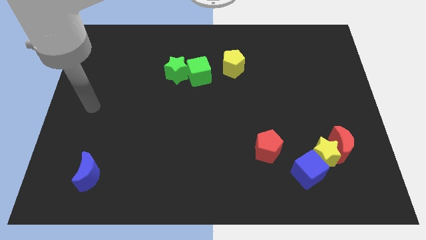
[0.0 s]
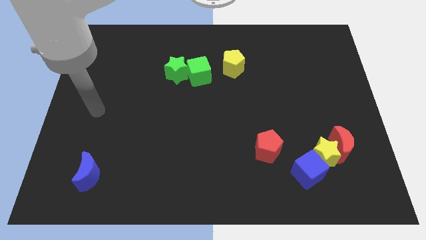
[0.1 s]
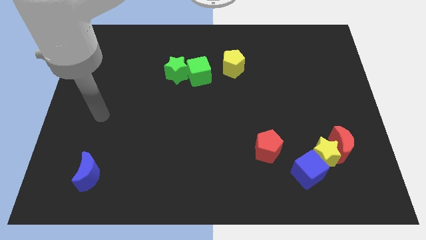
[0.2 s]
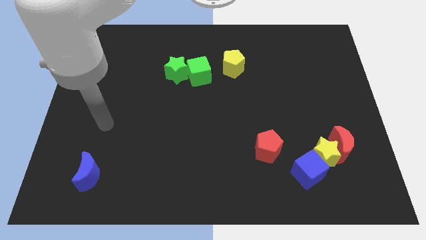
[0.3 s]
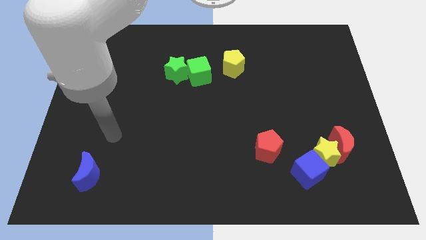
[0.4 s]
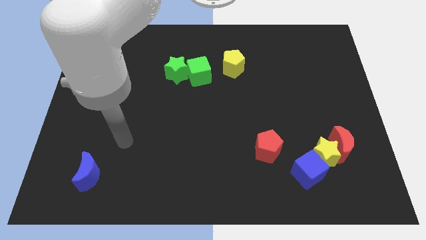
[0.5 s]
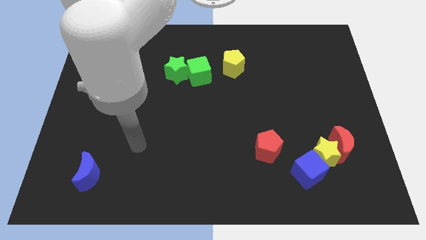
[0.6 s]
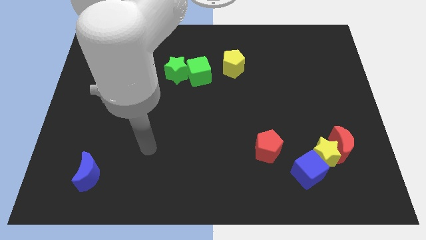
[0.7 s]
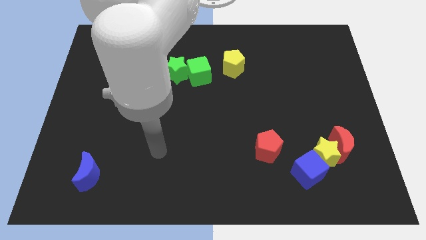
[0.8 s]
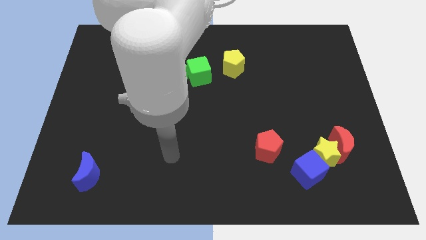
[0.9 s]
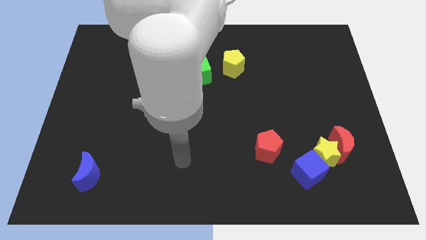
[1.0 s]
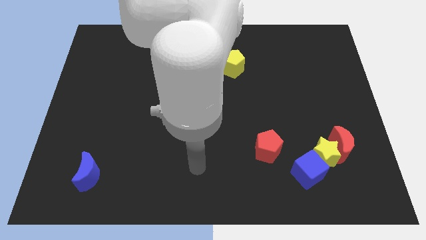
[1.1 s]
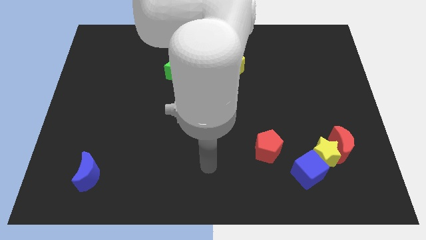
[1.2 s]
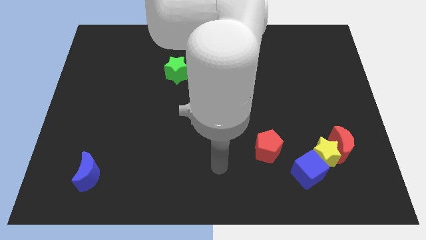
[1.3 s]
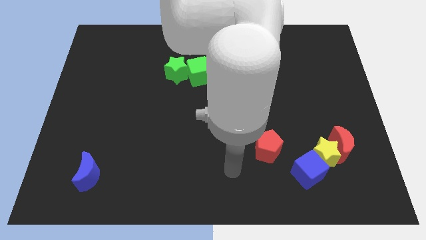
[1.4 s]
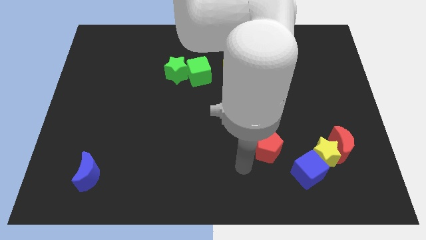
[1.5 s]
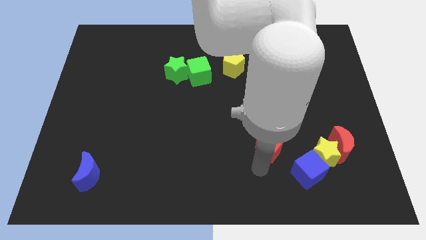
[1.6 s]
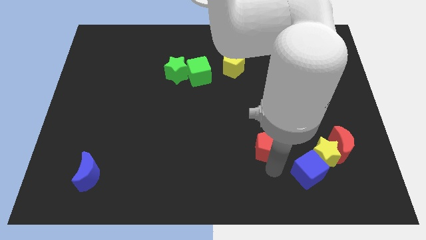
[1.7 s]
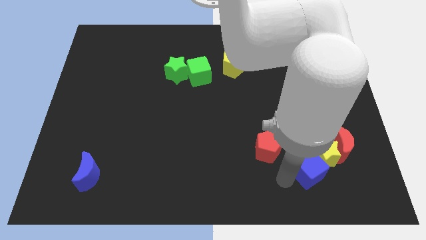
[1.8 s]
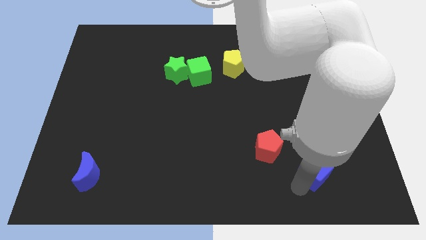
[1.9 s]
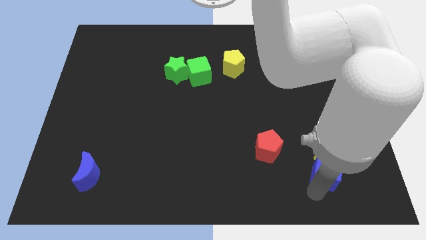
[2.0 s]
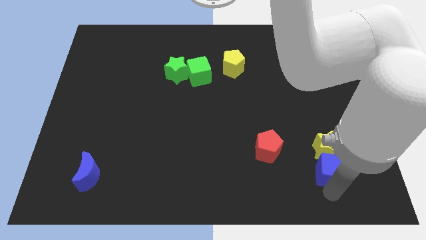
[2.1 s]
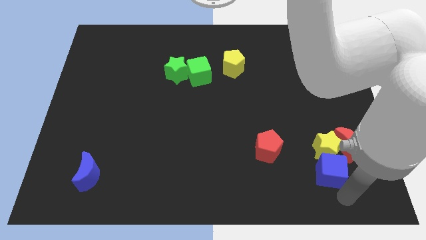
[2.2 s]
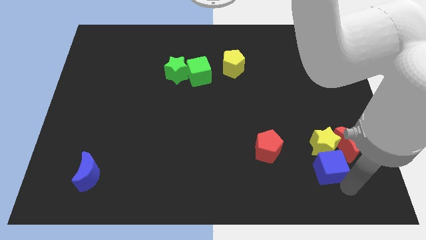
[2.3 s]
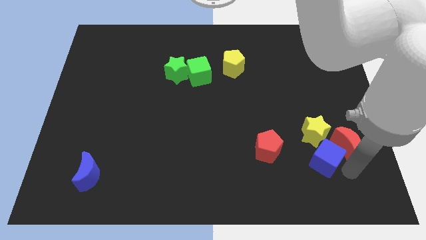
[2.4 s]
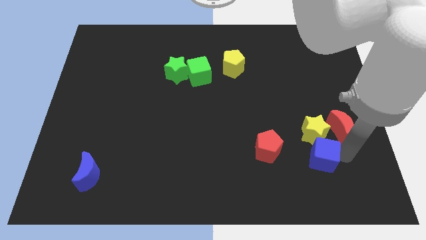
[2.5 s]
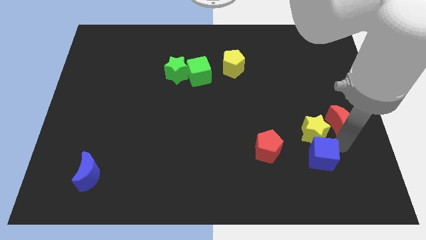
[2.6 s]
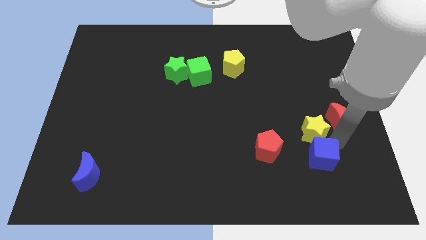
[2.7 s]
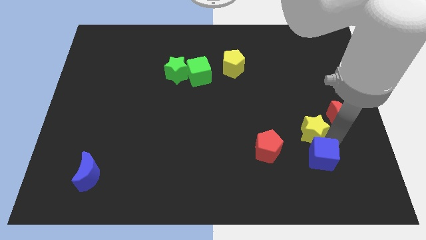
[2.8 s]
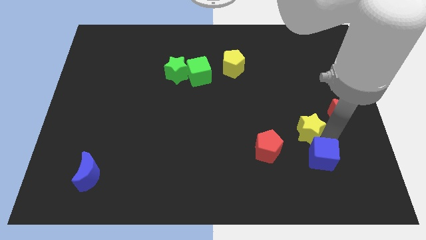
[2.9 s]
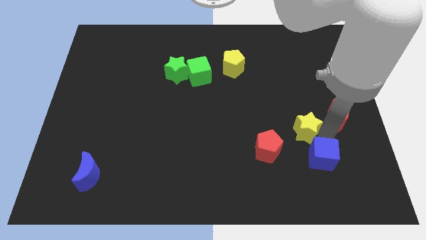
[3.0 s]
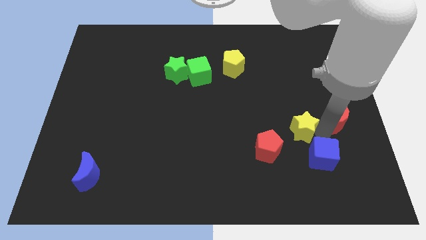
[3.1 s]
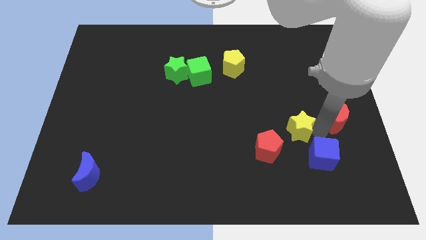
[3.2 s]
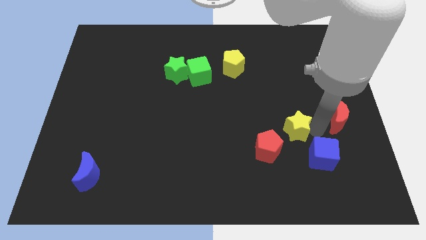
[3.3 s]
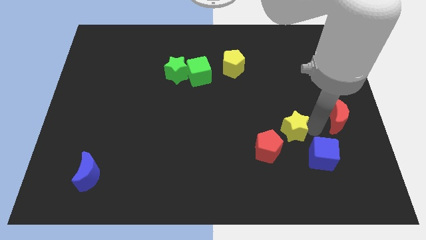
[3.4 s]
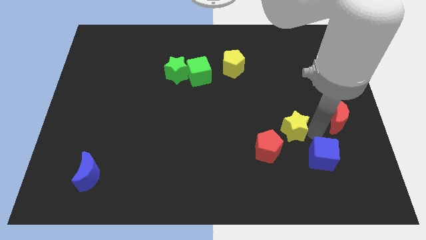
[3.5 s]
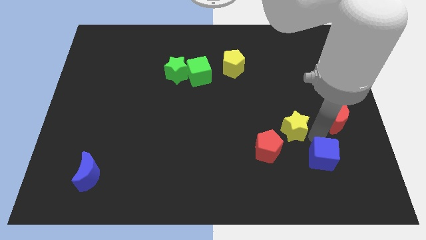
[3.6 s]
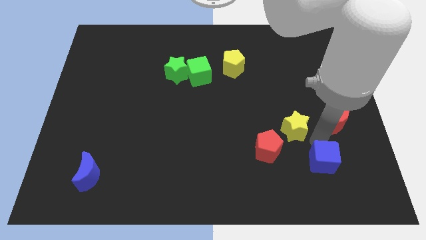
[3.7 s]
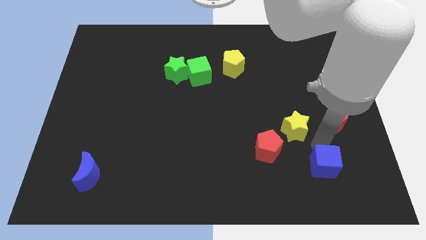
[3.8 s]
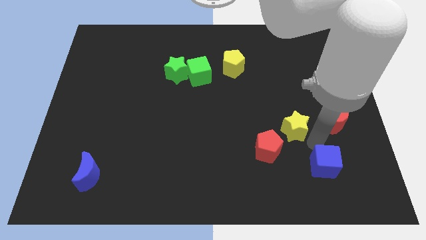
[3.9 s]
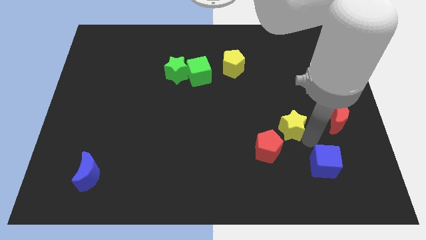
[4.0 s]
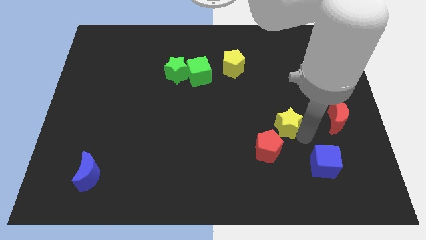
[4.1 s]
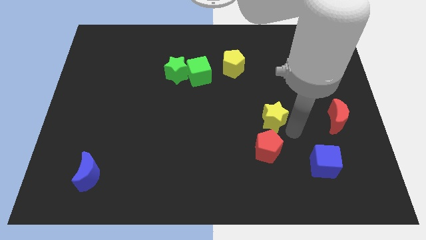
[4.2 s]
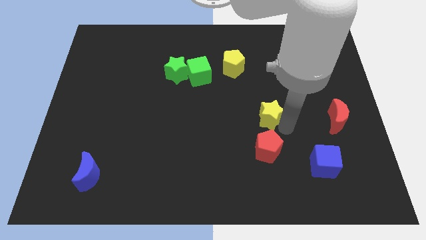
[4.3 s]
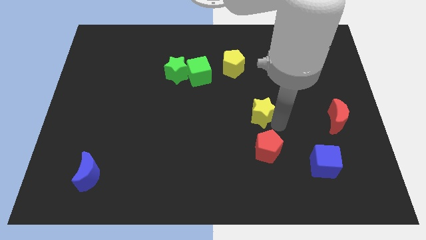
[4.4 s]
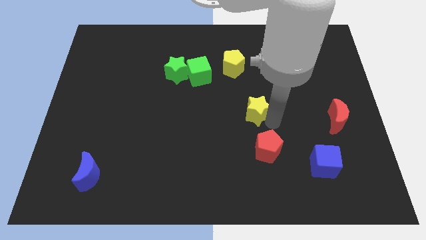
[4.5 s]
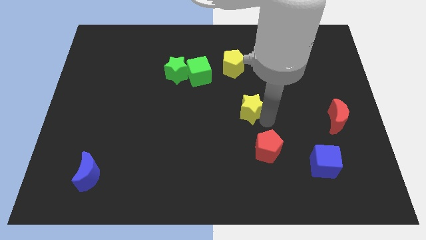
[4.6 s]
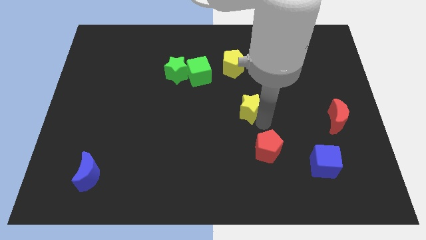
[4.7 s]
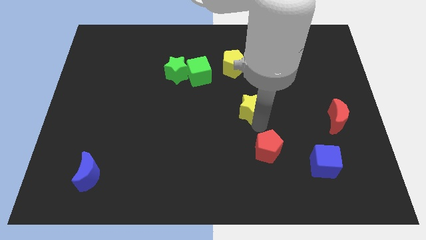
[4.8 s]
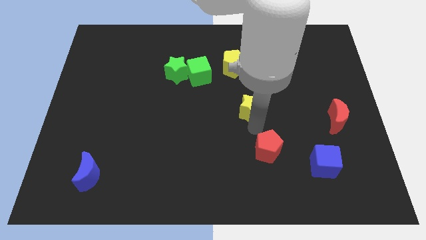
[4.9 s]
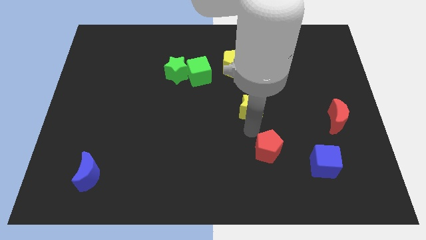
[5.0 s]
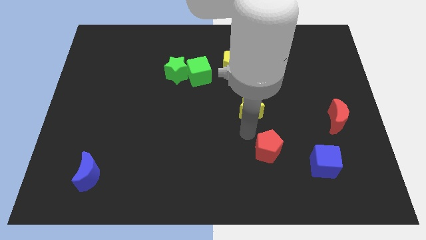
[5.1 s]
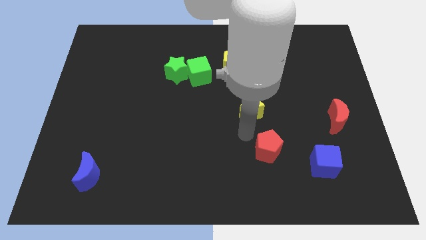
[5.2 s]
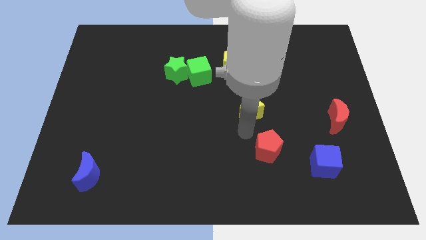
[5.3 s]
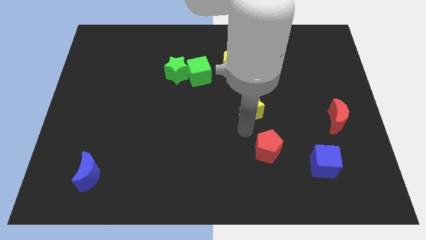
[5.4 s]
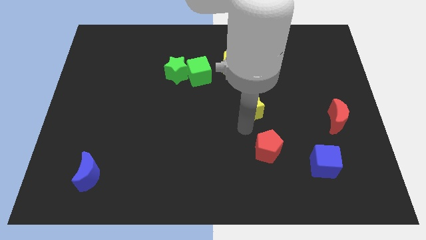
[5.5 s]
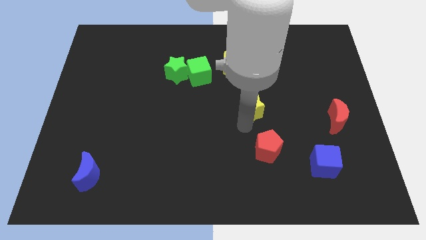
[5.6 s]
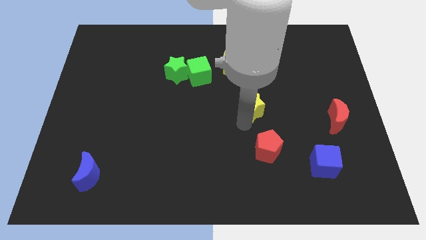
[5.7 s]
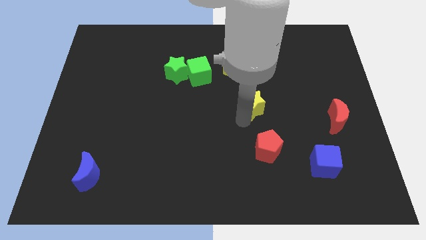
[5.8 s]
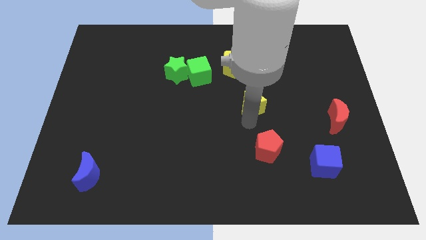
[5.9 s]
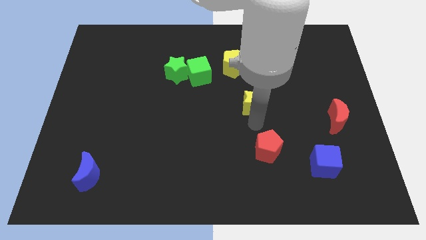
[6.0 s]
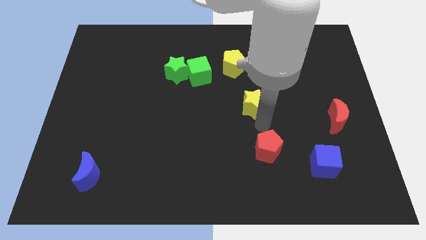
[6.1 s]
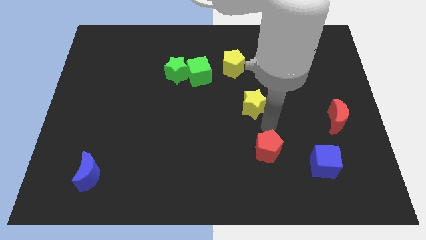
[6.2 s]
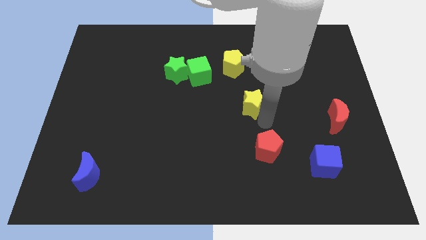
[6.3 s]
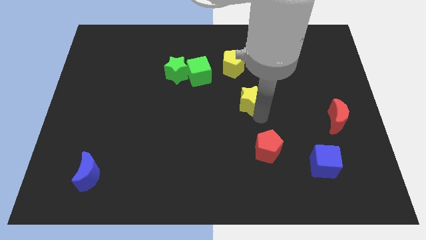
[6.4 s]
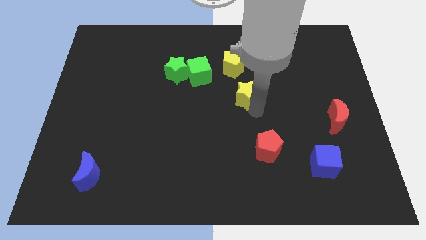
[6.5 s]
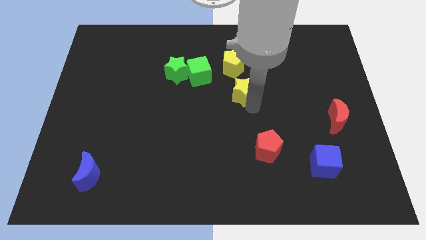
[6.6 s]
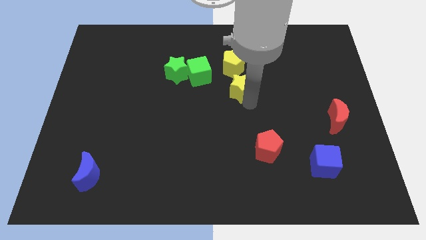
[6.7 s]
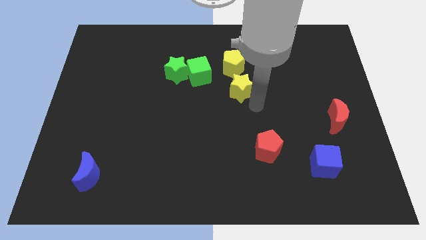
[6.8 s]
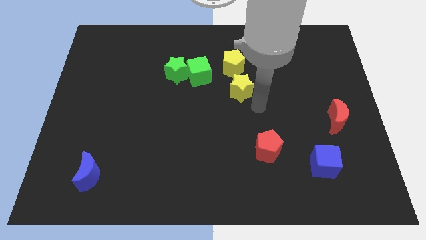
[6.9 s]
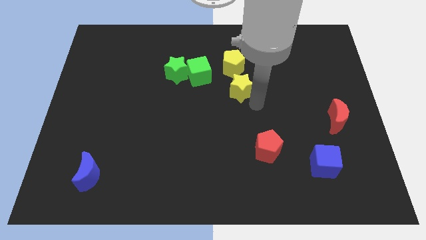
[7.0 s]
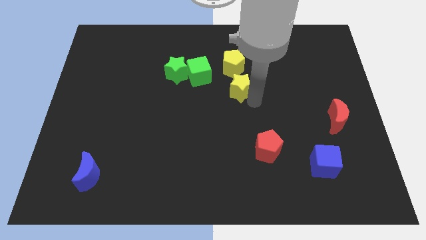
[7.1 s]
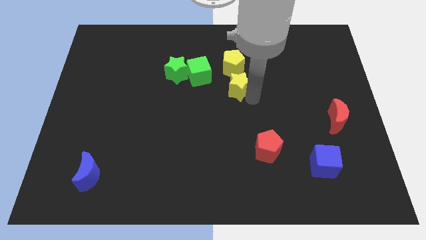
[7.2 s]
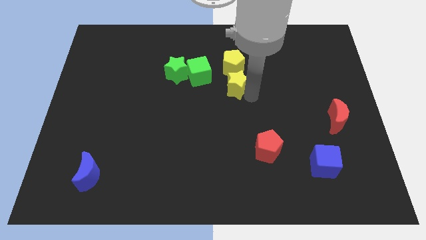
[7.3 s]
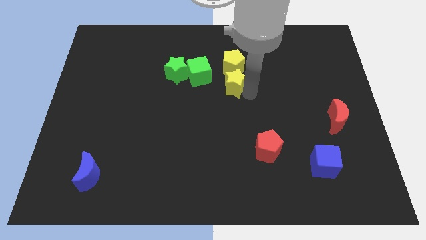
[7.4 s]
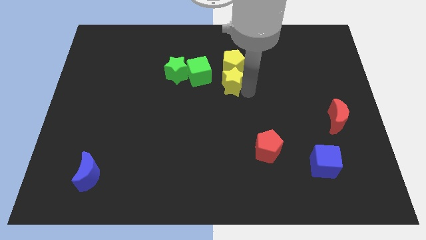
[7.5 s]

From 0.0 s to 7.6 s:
move the yellow star to the right side of the green star

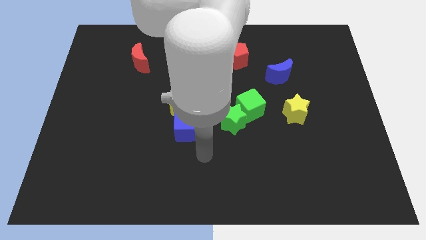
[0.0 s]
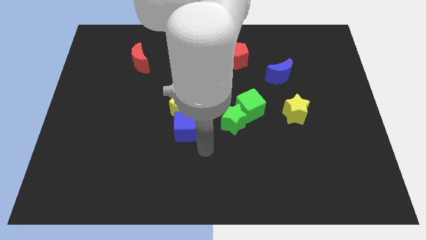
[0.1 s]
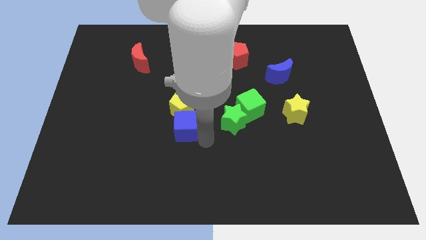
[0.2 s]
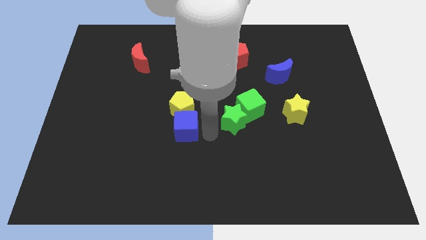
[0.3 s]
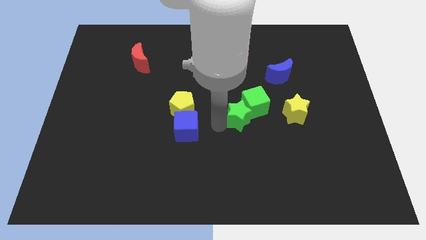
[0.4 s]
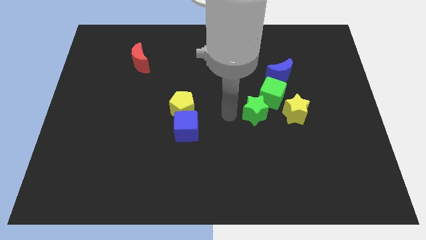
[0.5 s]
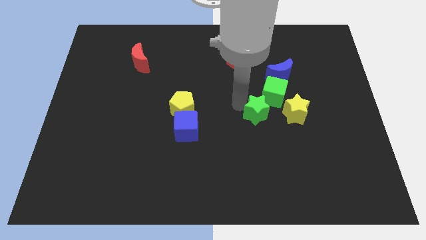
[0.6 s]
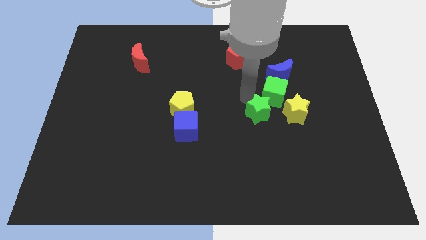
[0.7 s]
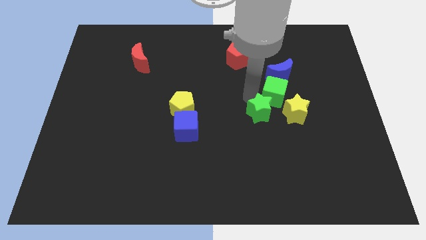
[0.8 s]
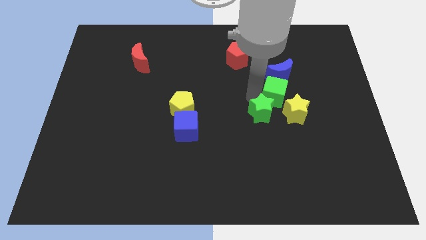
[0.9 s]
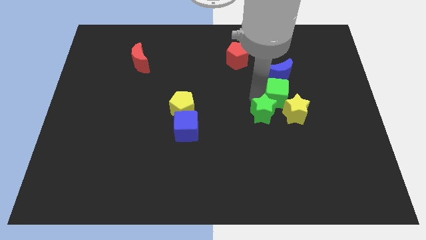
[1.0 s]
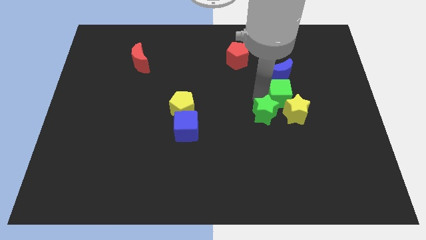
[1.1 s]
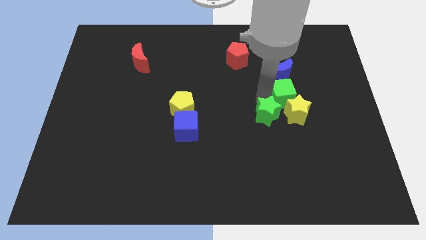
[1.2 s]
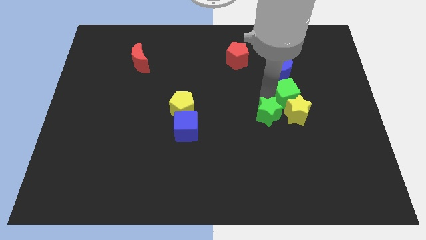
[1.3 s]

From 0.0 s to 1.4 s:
slide the green cube diagonally down and to the right of the blue moon
